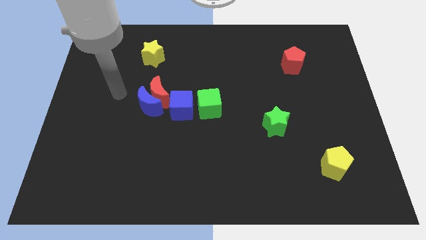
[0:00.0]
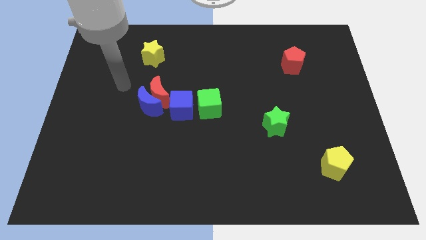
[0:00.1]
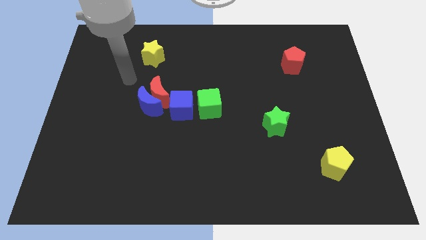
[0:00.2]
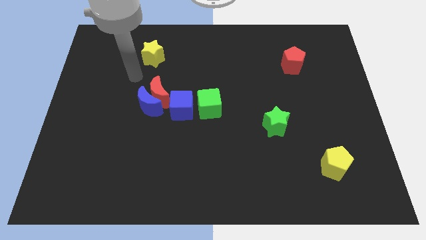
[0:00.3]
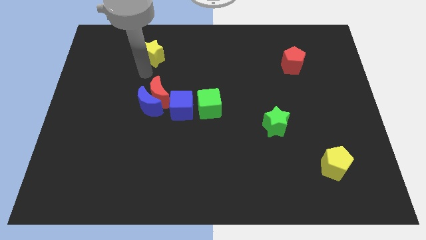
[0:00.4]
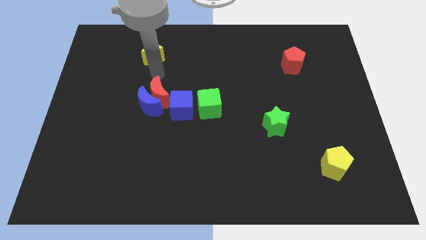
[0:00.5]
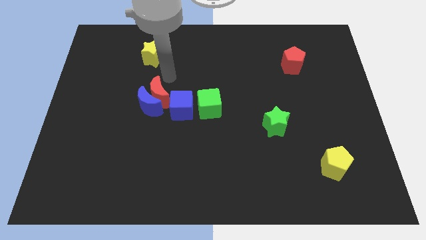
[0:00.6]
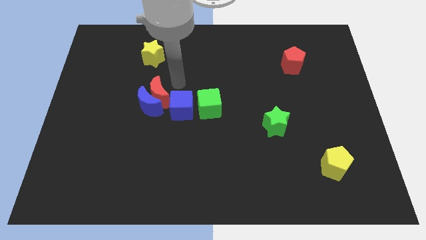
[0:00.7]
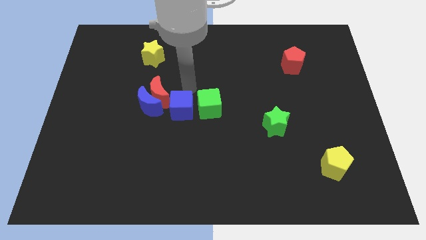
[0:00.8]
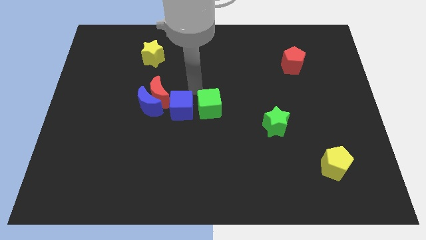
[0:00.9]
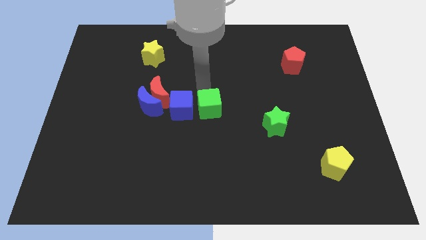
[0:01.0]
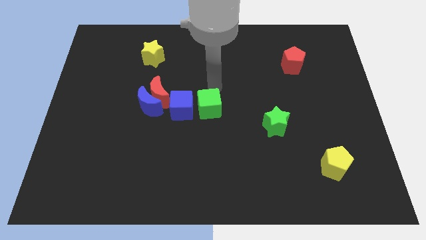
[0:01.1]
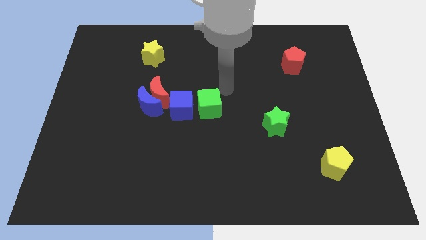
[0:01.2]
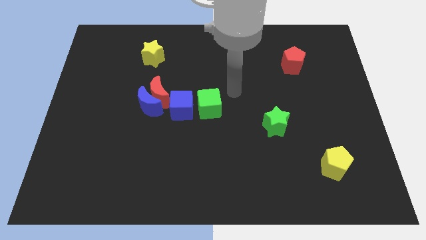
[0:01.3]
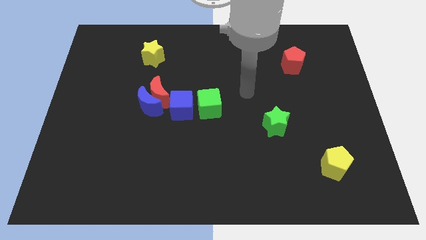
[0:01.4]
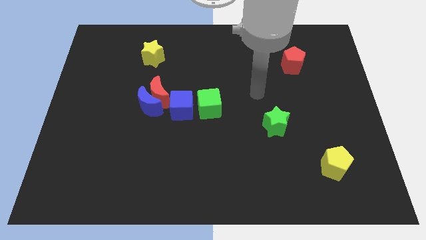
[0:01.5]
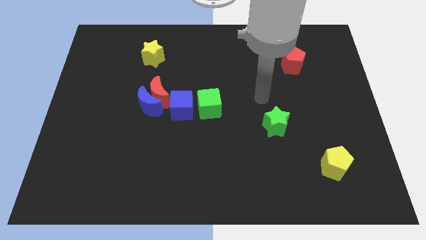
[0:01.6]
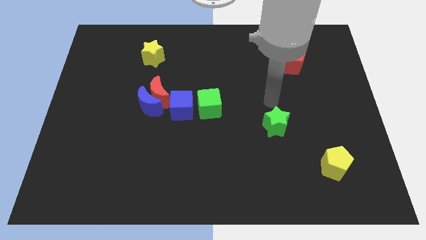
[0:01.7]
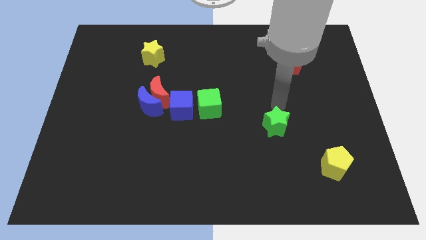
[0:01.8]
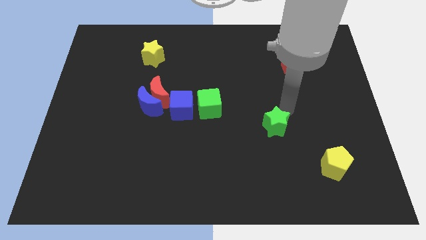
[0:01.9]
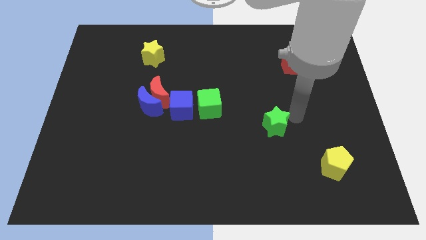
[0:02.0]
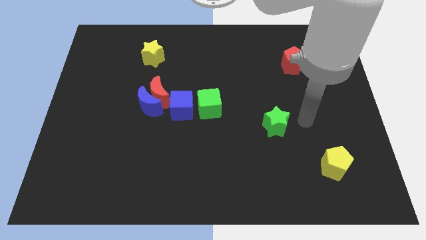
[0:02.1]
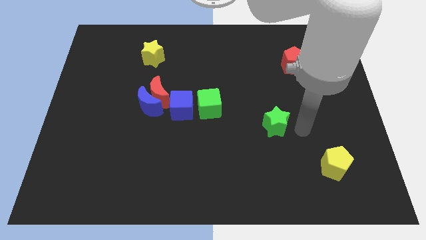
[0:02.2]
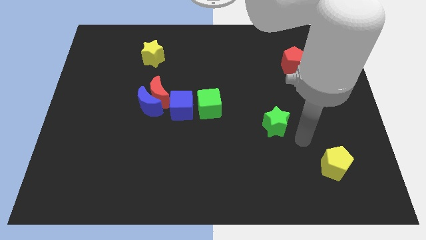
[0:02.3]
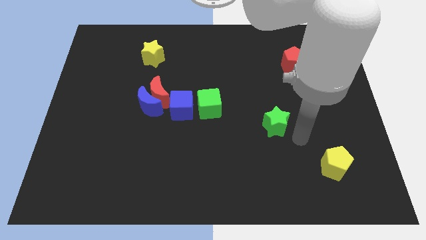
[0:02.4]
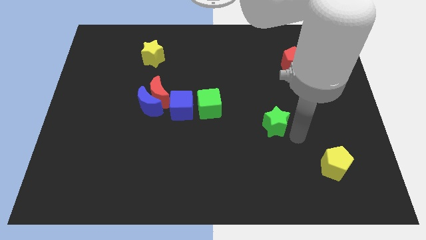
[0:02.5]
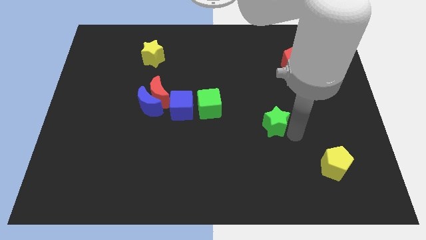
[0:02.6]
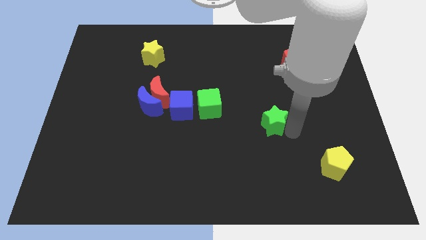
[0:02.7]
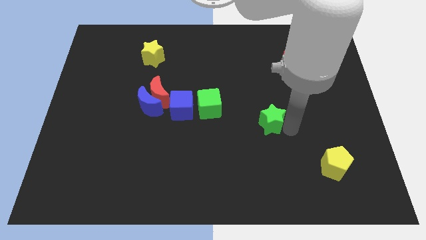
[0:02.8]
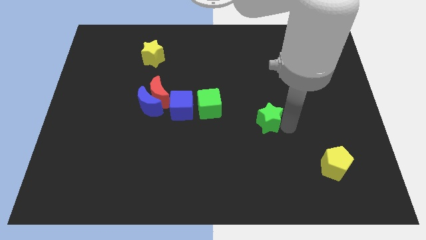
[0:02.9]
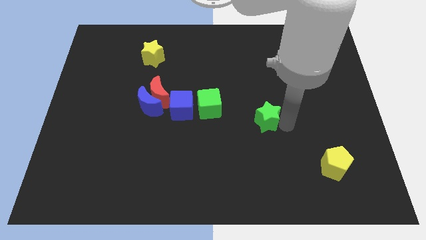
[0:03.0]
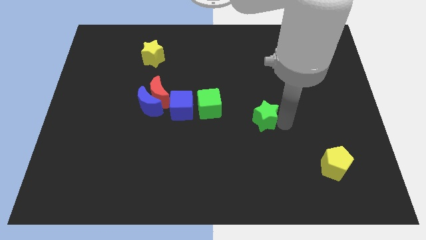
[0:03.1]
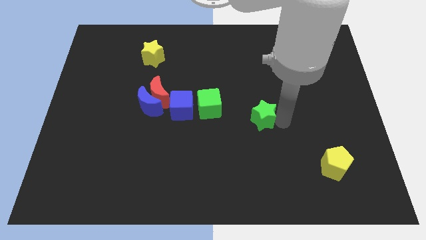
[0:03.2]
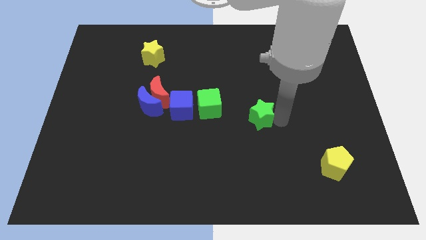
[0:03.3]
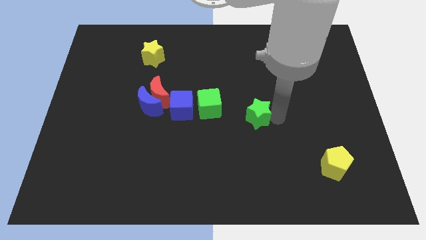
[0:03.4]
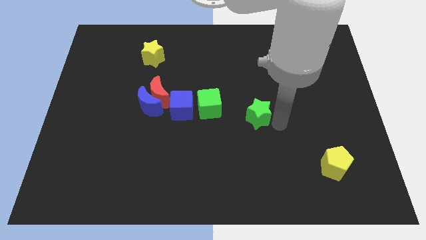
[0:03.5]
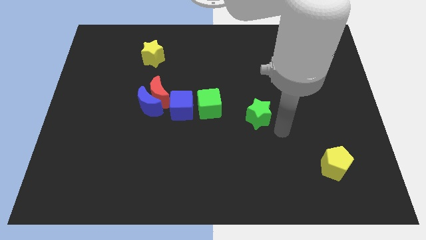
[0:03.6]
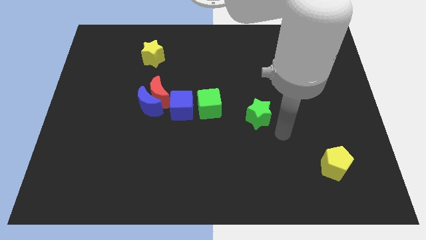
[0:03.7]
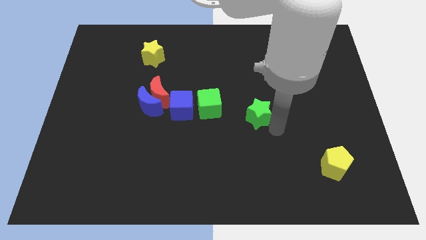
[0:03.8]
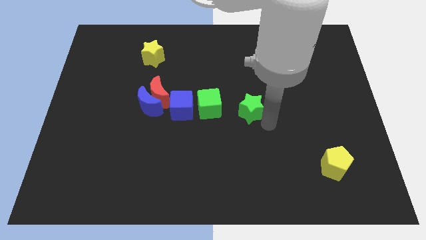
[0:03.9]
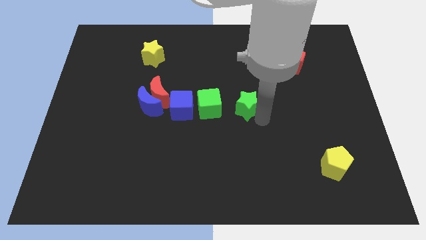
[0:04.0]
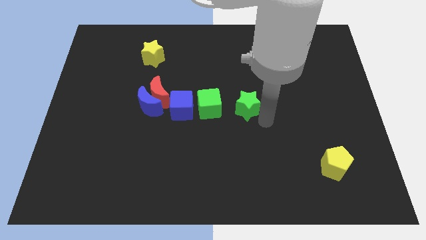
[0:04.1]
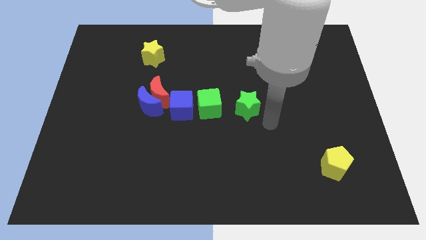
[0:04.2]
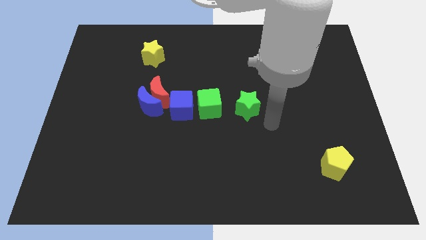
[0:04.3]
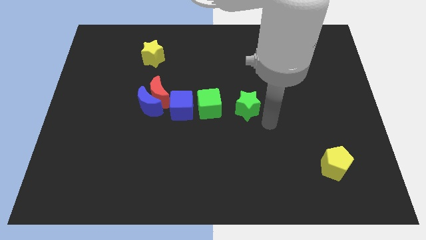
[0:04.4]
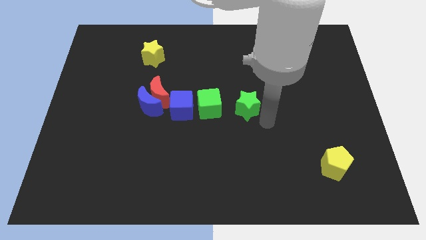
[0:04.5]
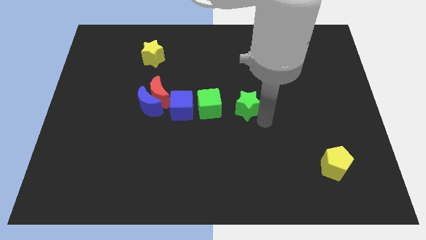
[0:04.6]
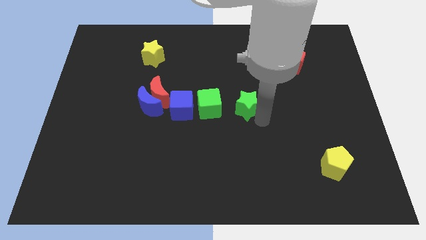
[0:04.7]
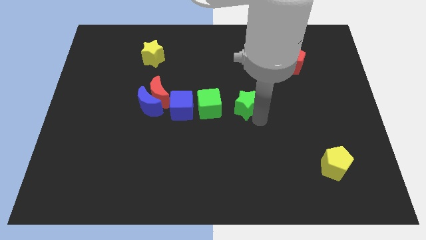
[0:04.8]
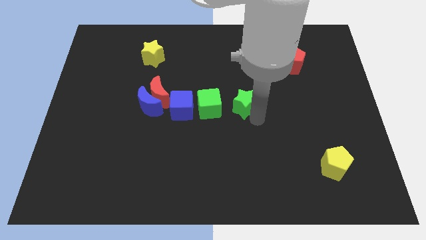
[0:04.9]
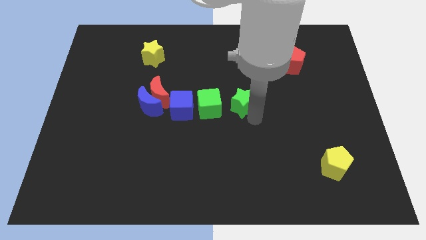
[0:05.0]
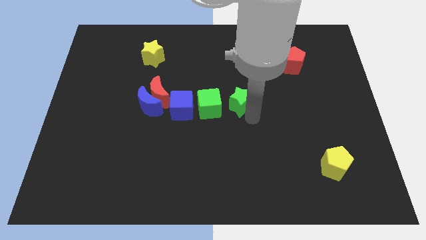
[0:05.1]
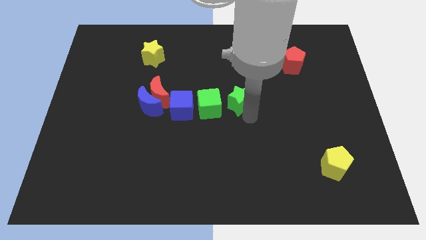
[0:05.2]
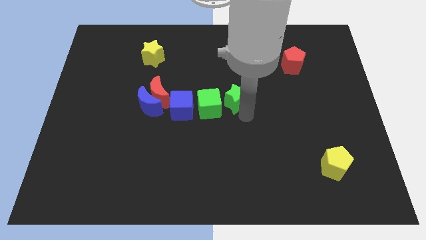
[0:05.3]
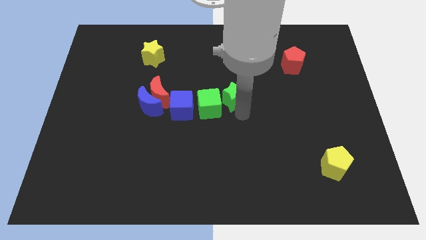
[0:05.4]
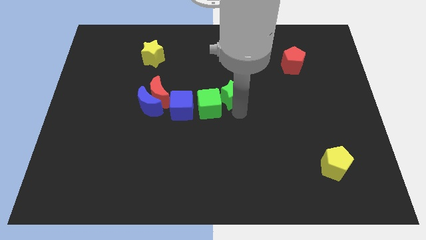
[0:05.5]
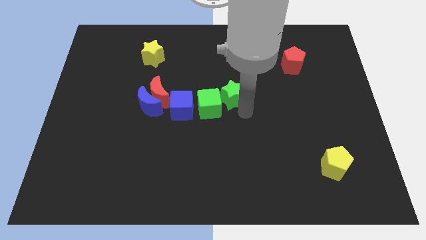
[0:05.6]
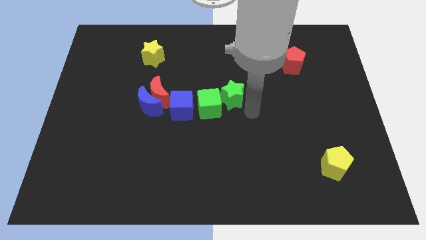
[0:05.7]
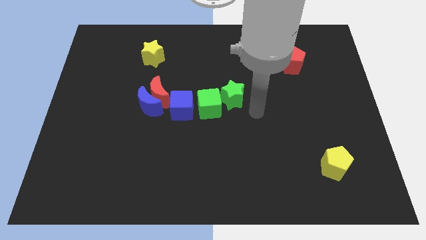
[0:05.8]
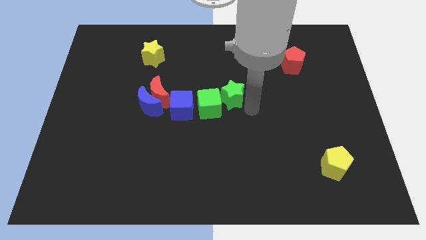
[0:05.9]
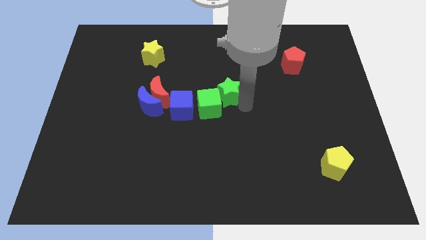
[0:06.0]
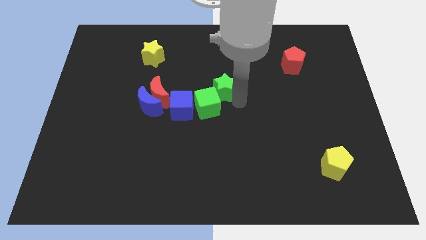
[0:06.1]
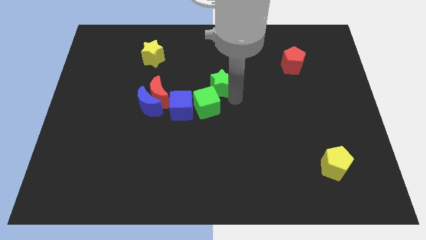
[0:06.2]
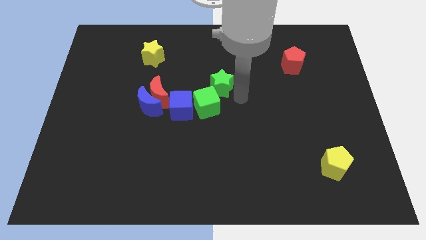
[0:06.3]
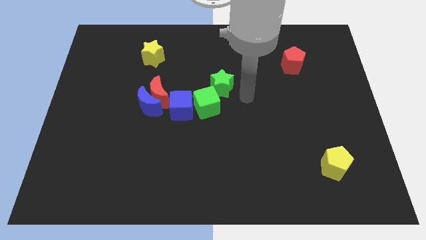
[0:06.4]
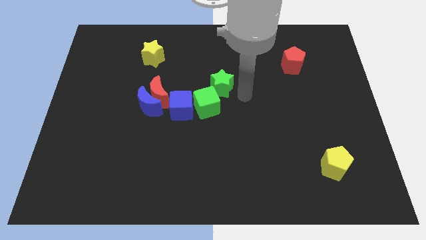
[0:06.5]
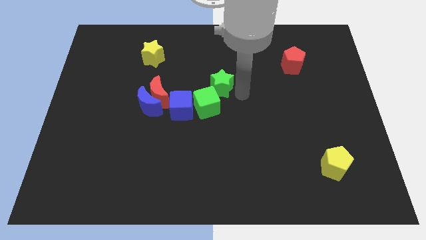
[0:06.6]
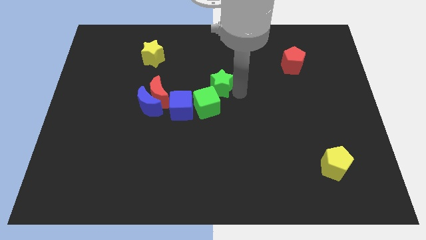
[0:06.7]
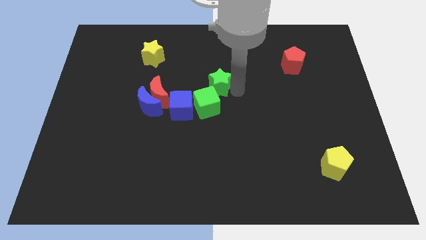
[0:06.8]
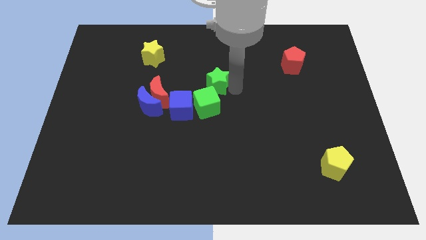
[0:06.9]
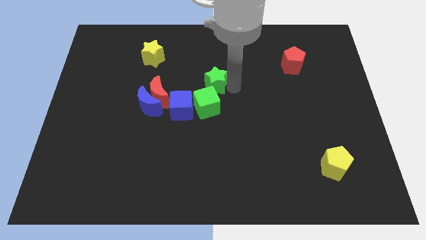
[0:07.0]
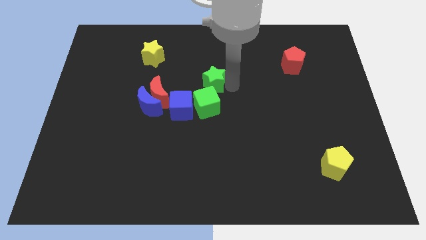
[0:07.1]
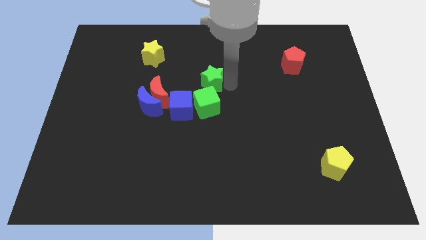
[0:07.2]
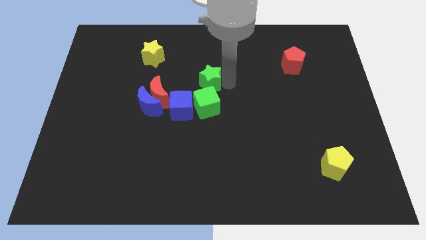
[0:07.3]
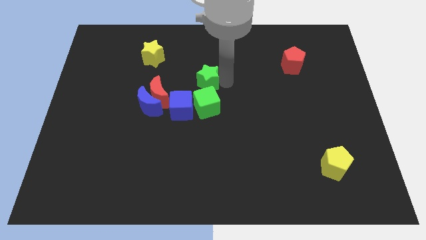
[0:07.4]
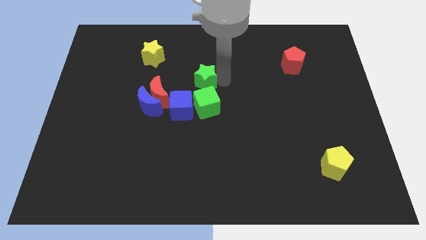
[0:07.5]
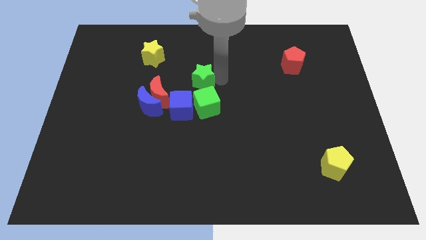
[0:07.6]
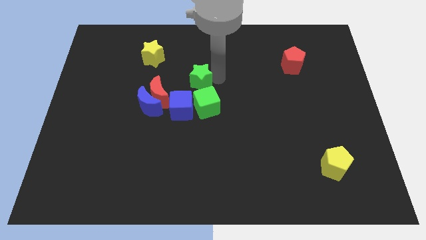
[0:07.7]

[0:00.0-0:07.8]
slide the green star above the blue cube
